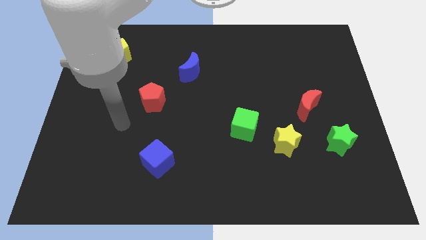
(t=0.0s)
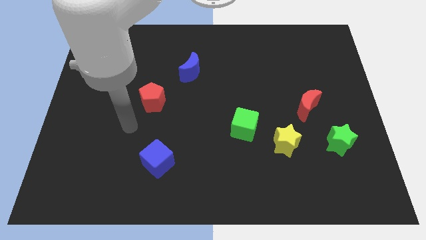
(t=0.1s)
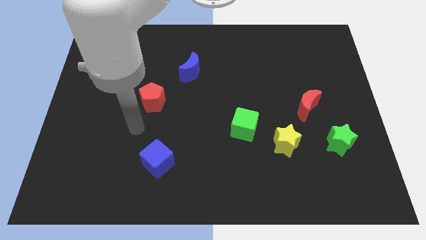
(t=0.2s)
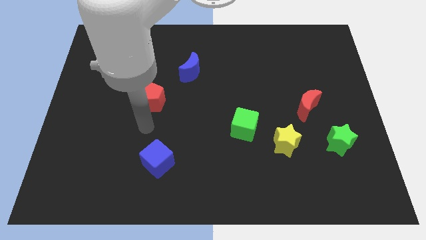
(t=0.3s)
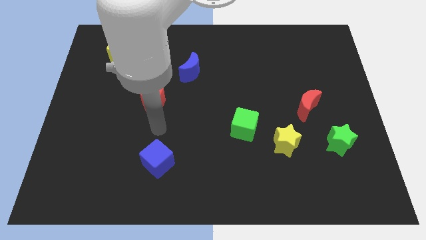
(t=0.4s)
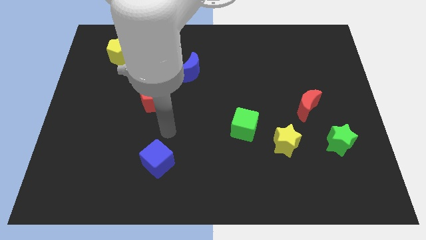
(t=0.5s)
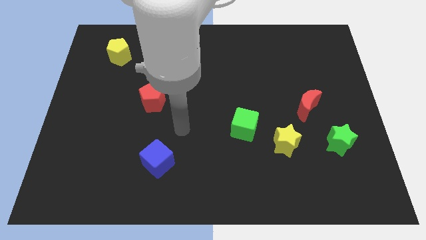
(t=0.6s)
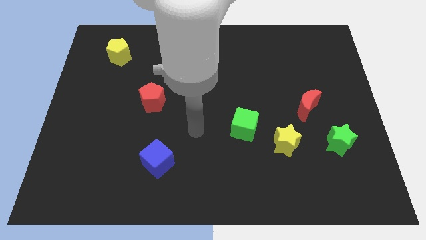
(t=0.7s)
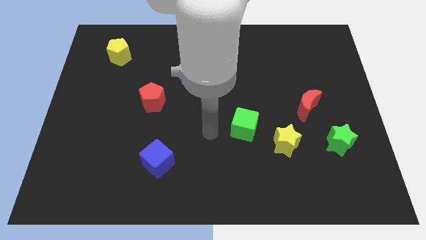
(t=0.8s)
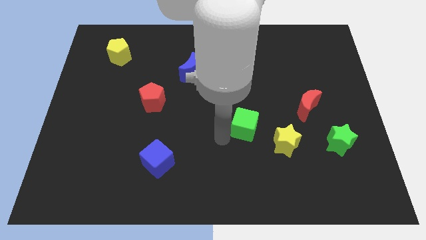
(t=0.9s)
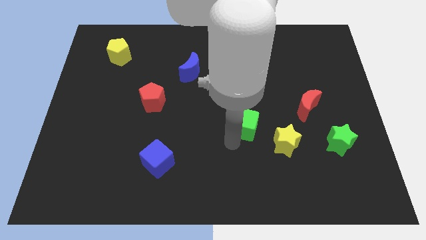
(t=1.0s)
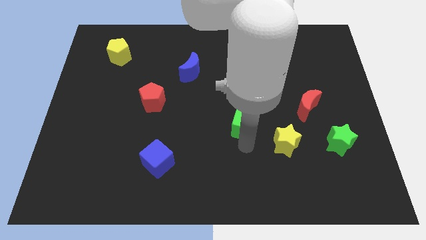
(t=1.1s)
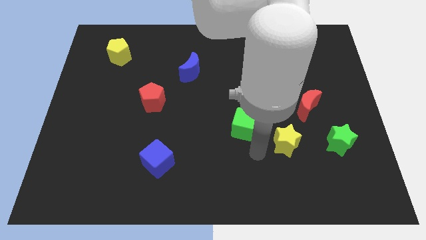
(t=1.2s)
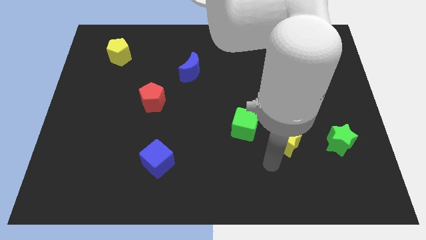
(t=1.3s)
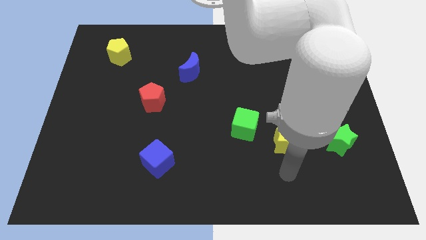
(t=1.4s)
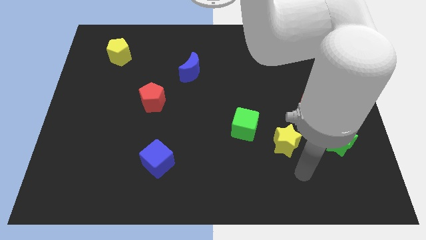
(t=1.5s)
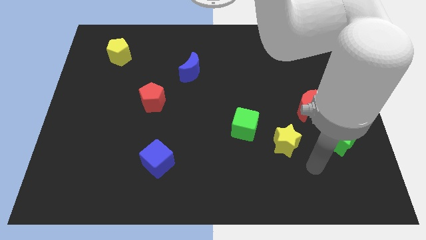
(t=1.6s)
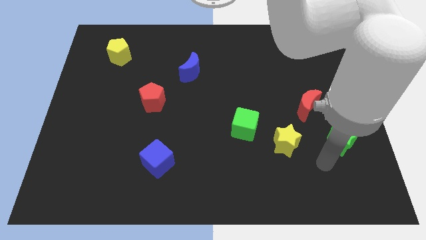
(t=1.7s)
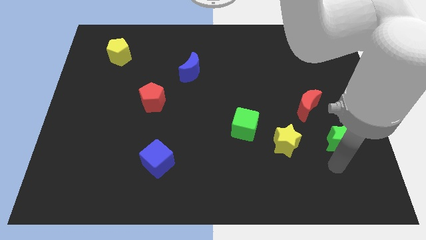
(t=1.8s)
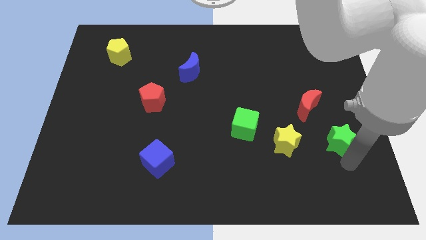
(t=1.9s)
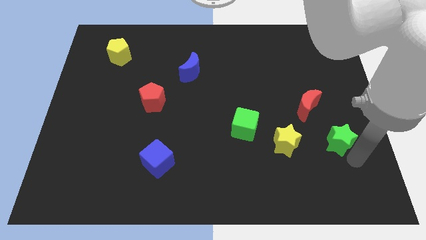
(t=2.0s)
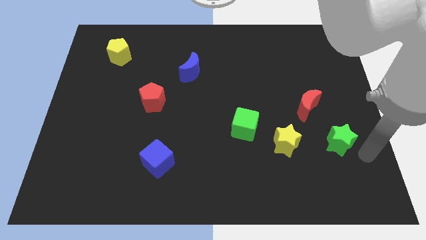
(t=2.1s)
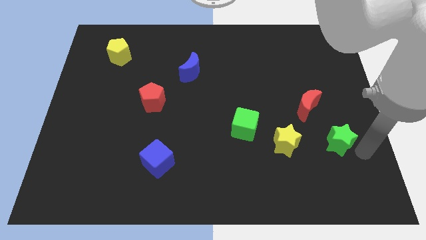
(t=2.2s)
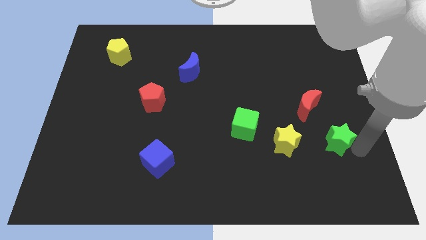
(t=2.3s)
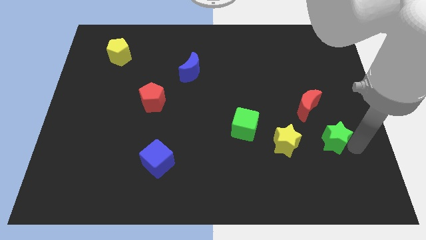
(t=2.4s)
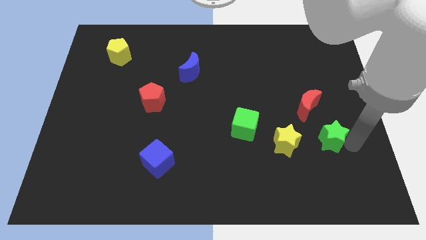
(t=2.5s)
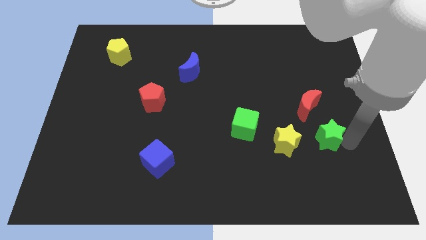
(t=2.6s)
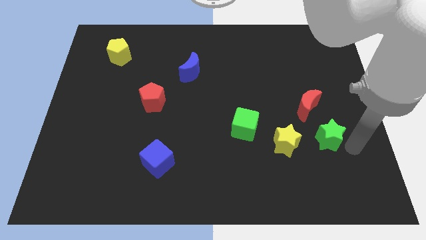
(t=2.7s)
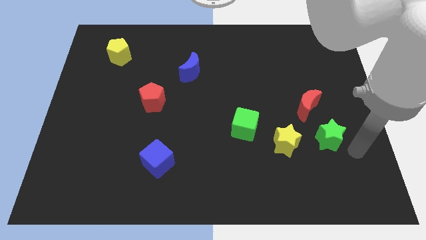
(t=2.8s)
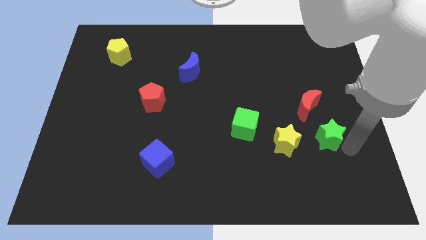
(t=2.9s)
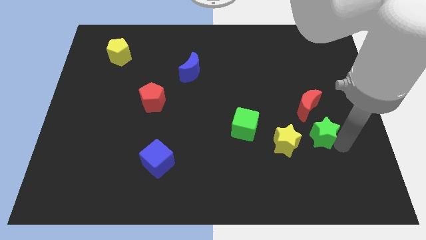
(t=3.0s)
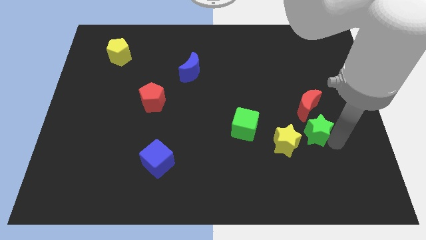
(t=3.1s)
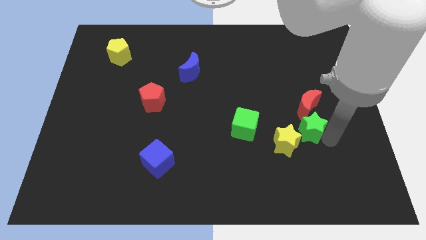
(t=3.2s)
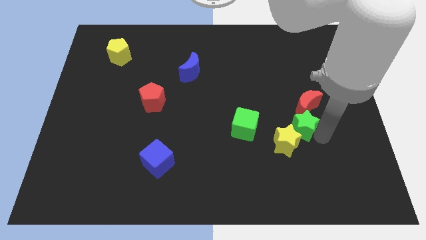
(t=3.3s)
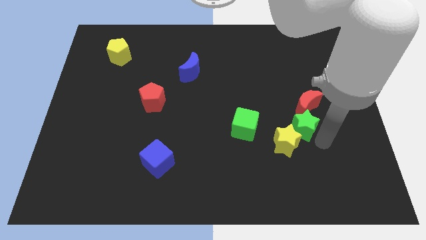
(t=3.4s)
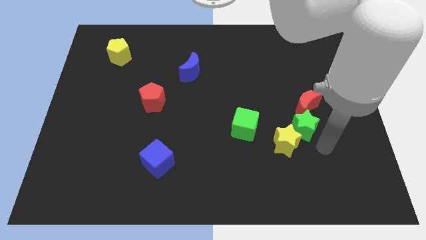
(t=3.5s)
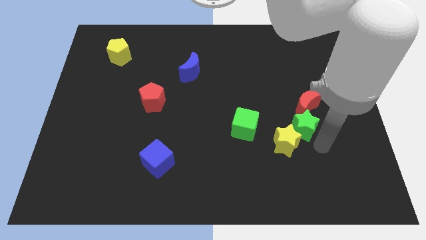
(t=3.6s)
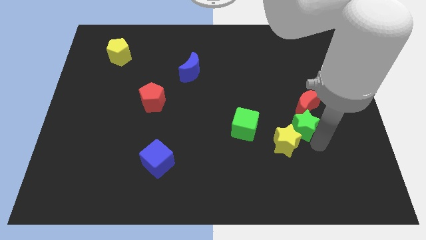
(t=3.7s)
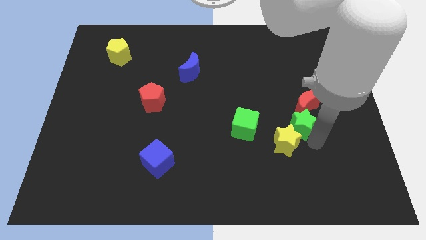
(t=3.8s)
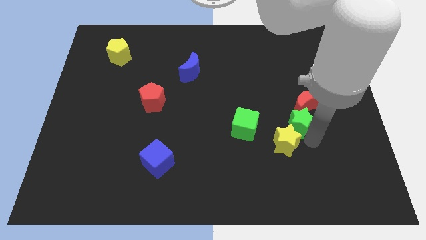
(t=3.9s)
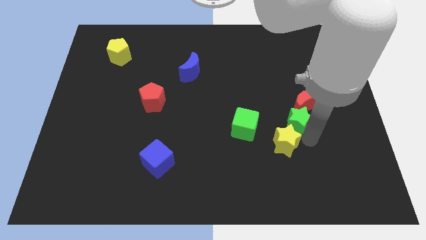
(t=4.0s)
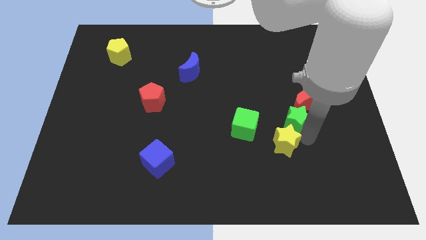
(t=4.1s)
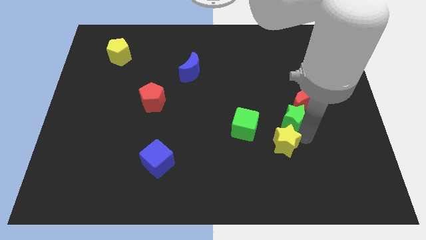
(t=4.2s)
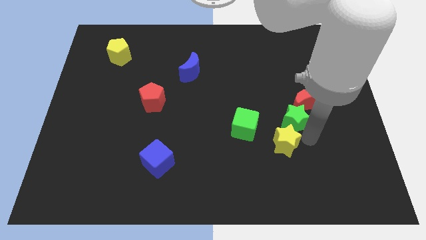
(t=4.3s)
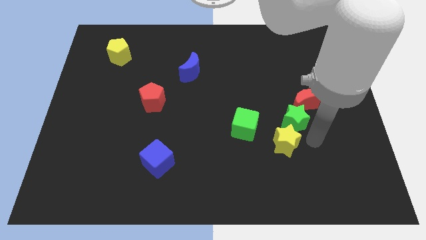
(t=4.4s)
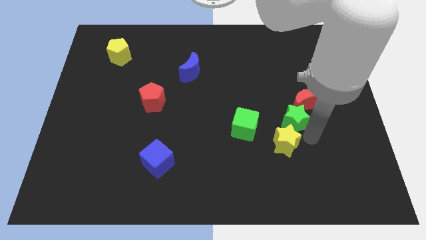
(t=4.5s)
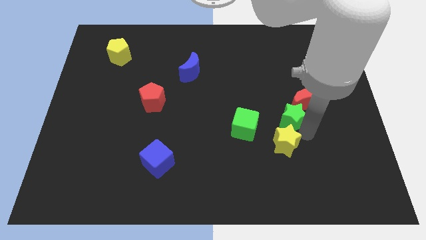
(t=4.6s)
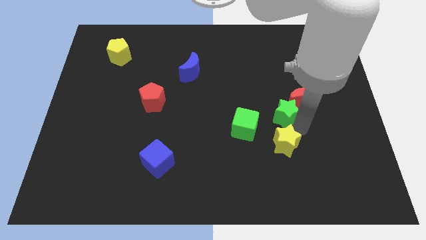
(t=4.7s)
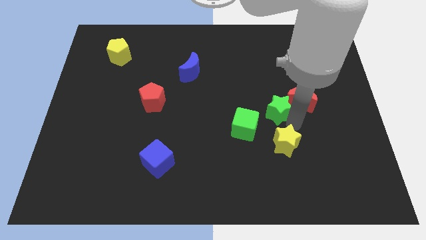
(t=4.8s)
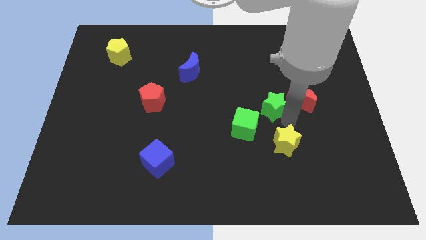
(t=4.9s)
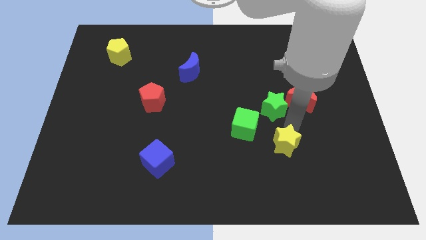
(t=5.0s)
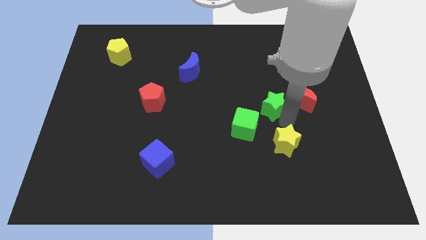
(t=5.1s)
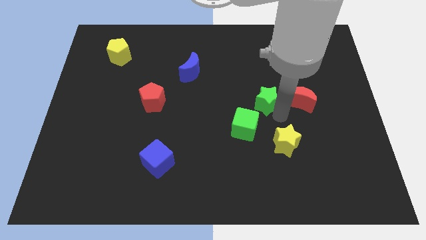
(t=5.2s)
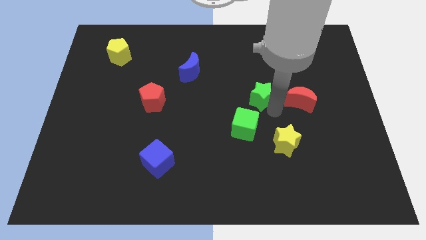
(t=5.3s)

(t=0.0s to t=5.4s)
move the green star diagonally upwards and left

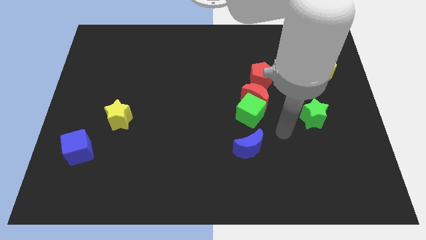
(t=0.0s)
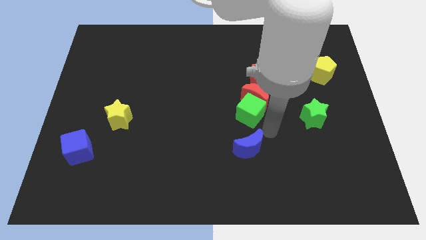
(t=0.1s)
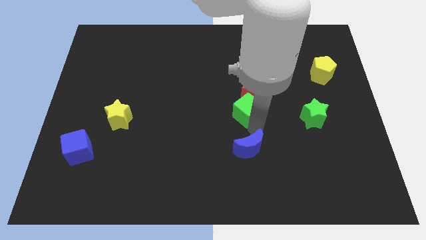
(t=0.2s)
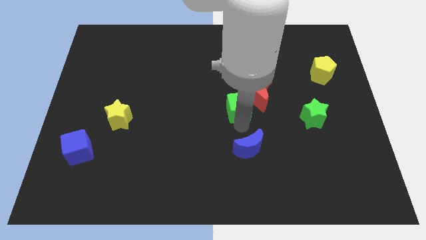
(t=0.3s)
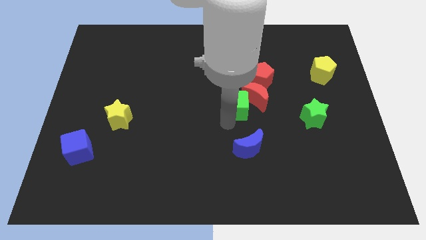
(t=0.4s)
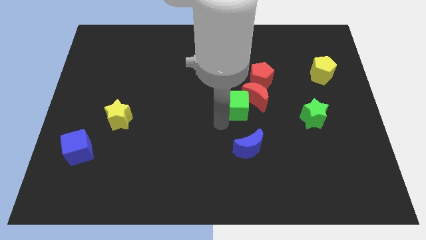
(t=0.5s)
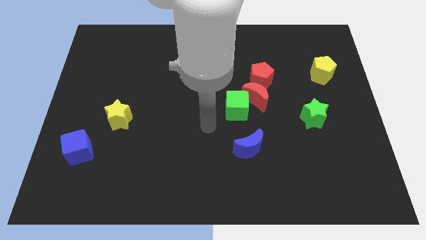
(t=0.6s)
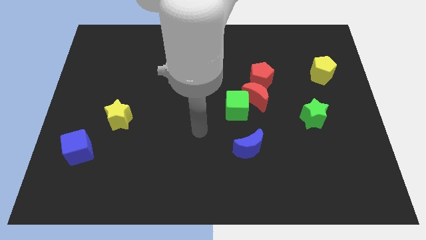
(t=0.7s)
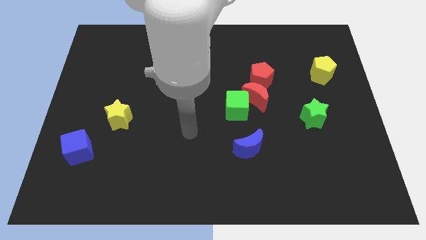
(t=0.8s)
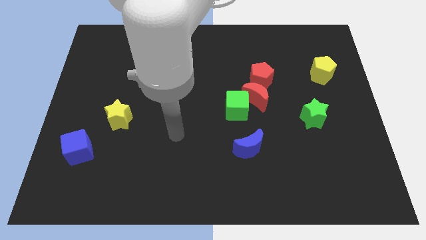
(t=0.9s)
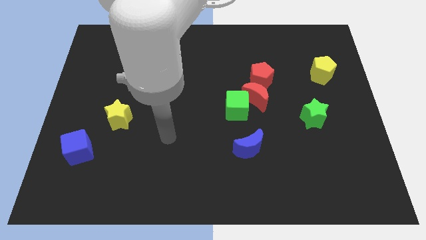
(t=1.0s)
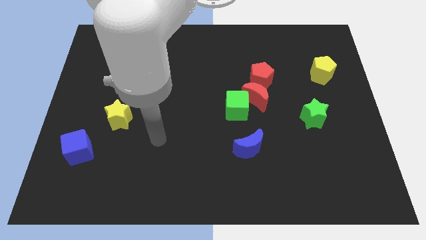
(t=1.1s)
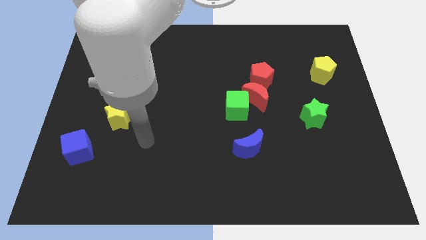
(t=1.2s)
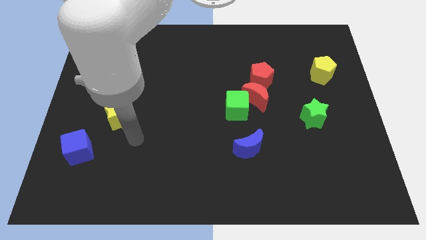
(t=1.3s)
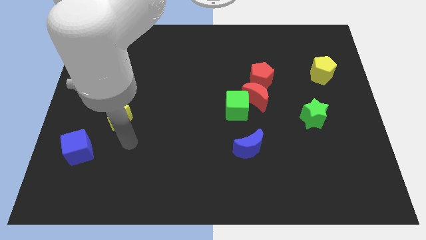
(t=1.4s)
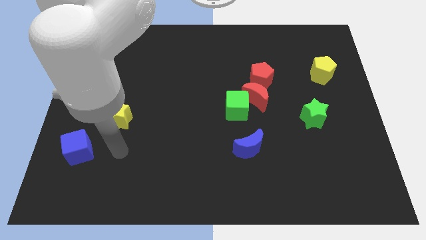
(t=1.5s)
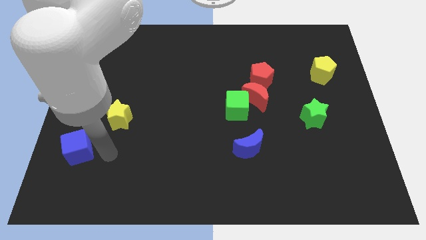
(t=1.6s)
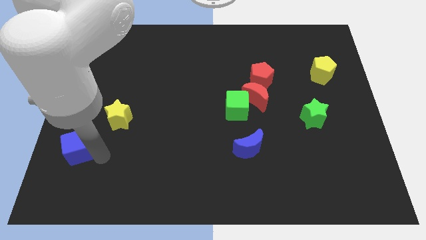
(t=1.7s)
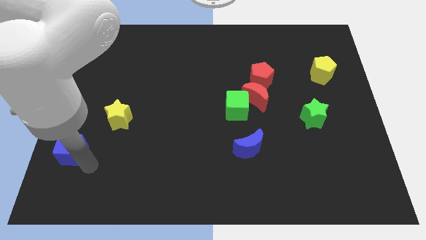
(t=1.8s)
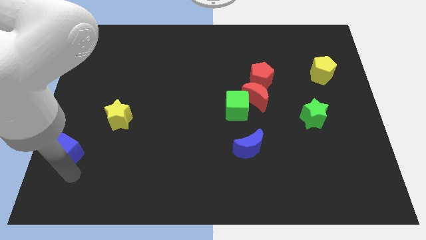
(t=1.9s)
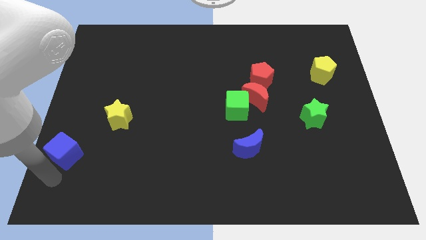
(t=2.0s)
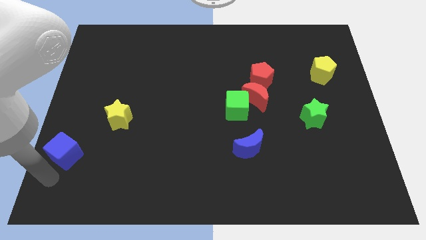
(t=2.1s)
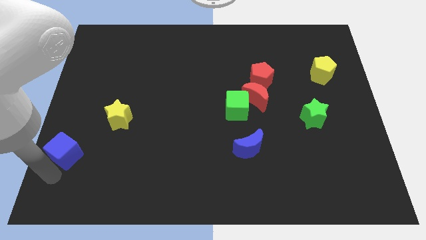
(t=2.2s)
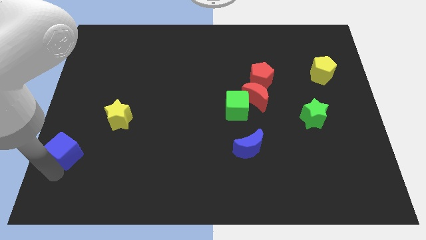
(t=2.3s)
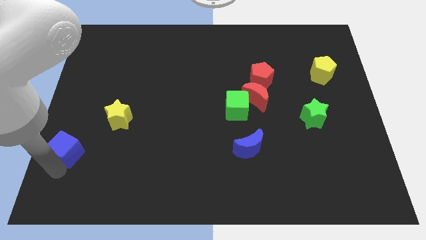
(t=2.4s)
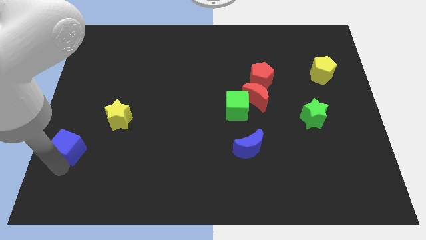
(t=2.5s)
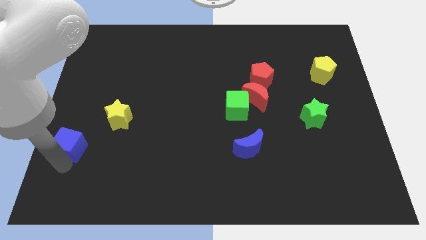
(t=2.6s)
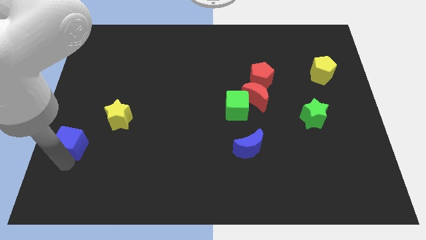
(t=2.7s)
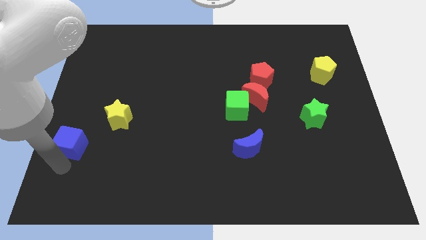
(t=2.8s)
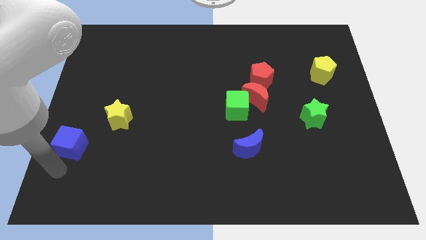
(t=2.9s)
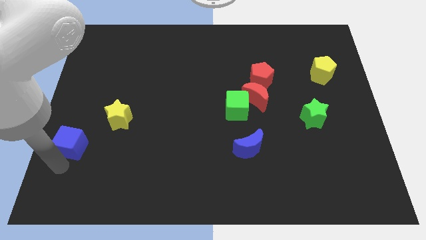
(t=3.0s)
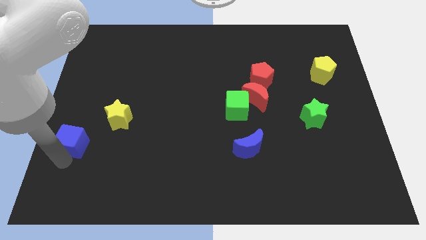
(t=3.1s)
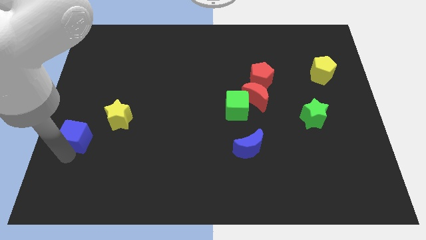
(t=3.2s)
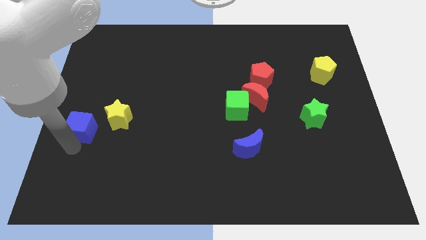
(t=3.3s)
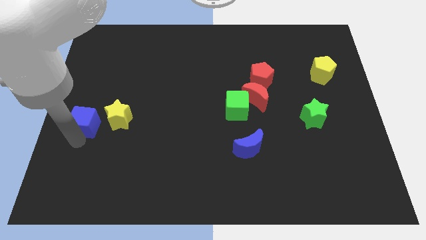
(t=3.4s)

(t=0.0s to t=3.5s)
move the blue cube upwards a little
